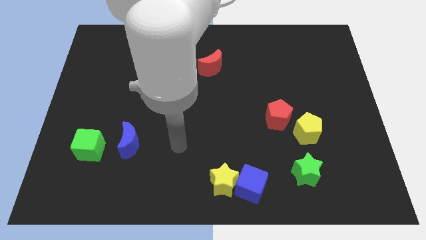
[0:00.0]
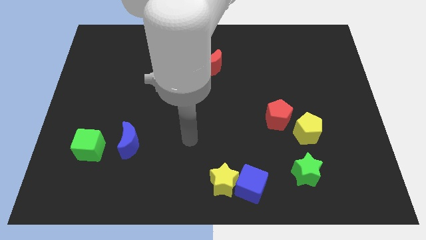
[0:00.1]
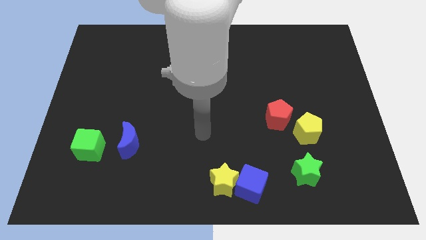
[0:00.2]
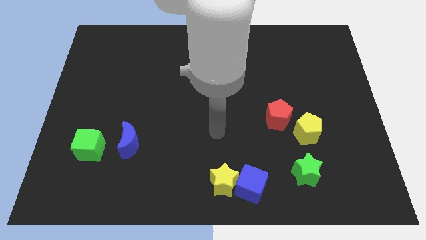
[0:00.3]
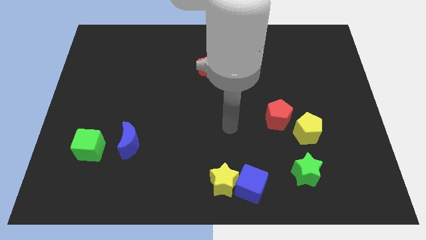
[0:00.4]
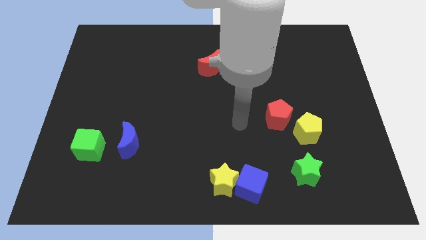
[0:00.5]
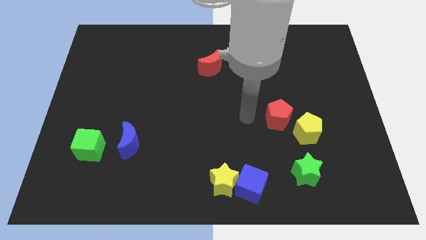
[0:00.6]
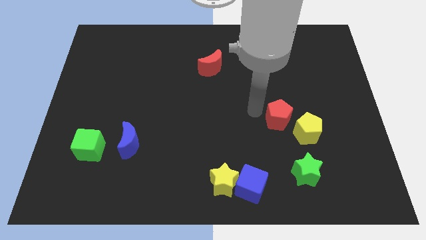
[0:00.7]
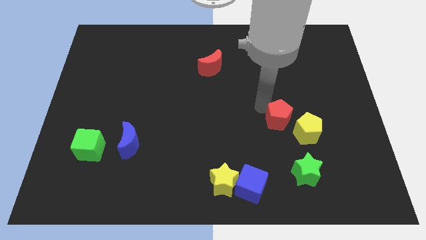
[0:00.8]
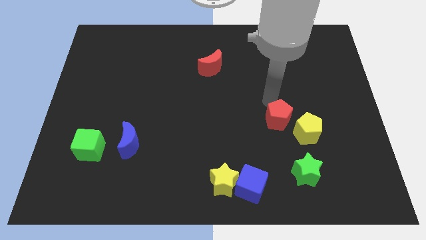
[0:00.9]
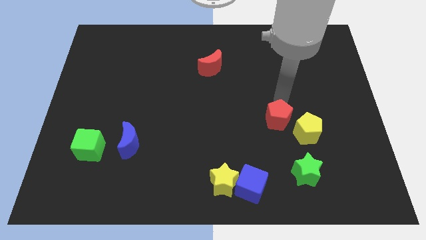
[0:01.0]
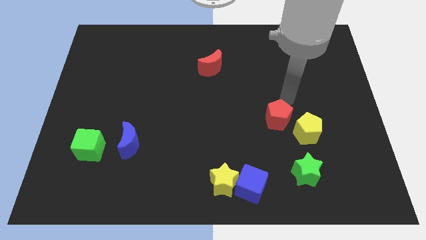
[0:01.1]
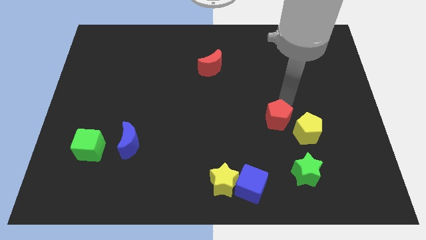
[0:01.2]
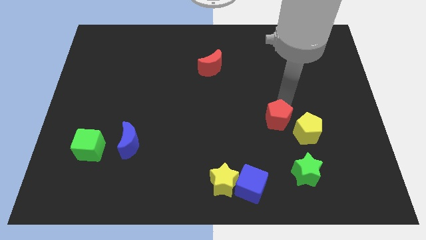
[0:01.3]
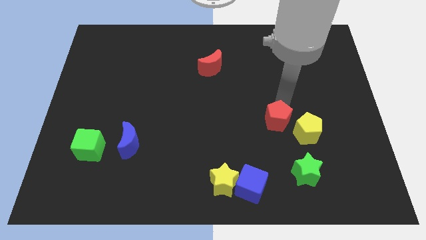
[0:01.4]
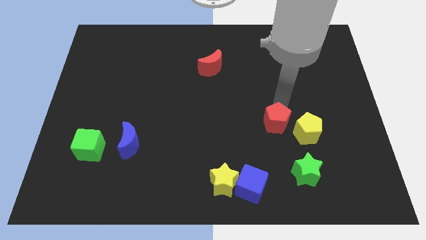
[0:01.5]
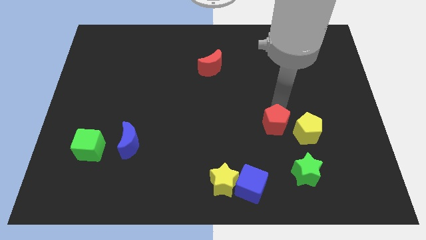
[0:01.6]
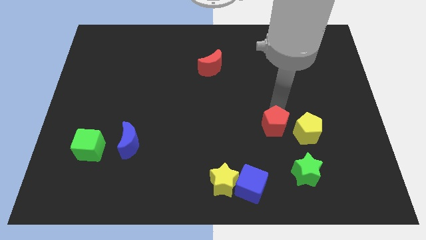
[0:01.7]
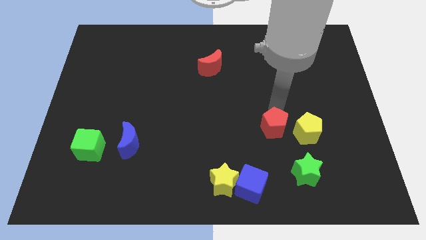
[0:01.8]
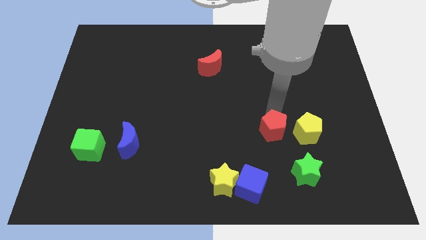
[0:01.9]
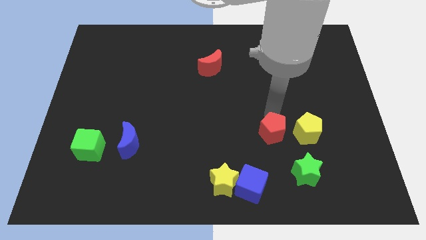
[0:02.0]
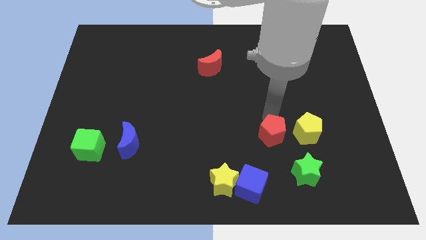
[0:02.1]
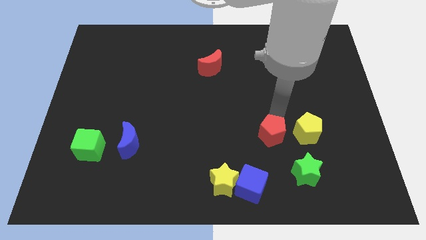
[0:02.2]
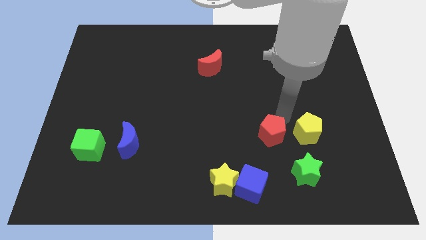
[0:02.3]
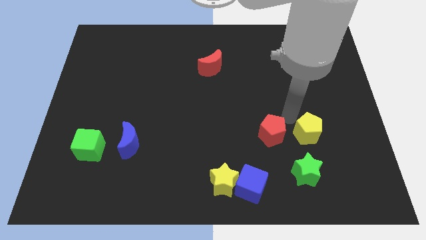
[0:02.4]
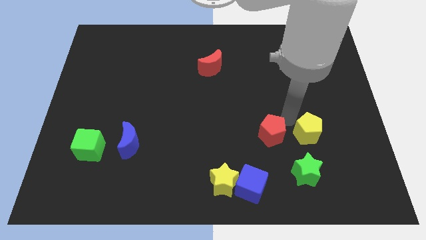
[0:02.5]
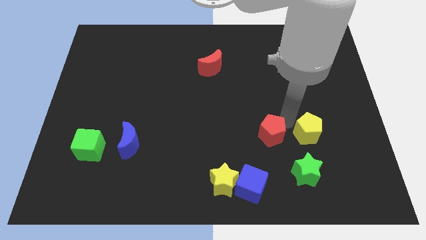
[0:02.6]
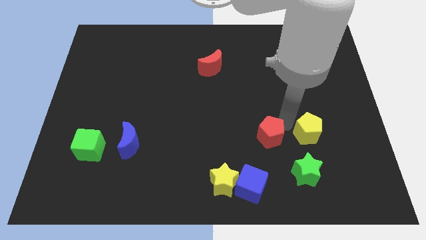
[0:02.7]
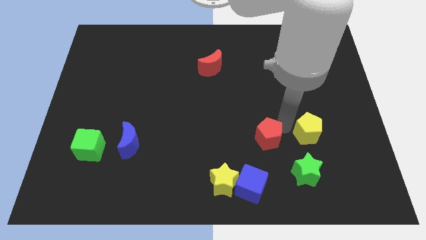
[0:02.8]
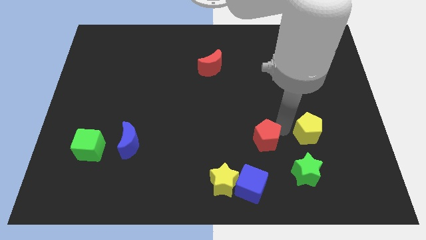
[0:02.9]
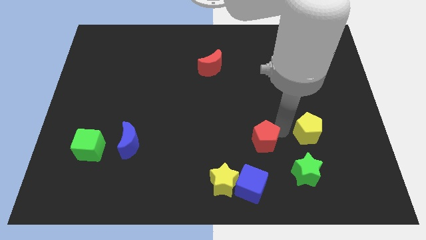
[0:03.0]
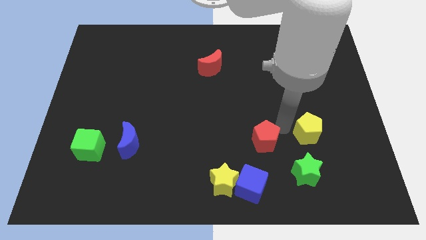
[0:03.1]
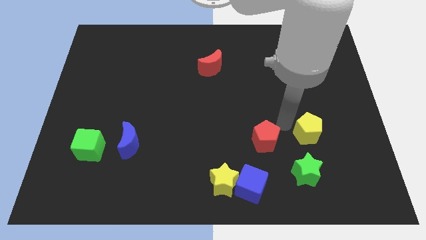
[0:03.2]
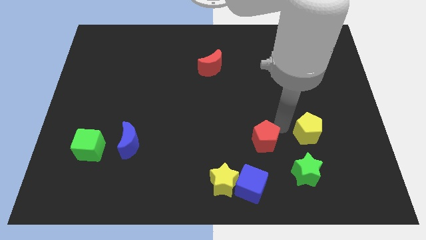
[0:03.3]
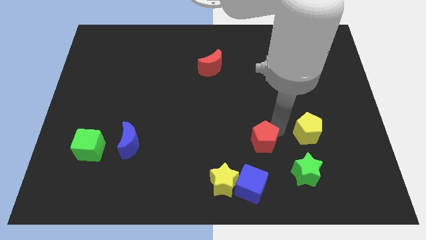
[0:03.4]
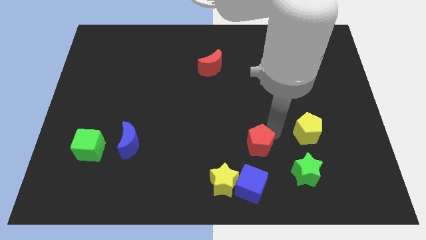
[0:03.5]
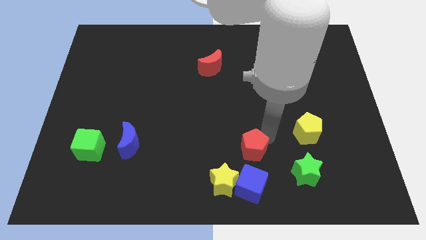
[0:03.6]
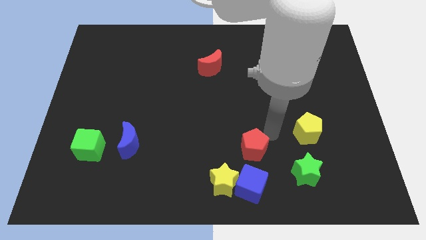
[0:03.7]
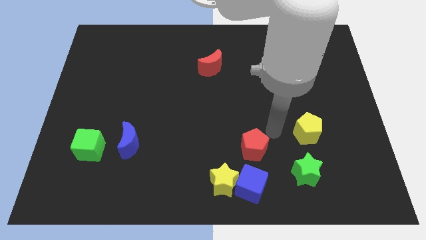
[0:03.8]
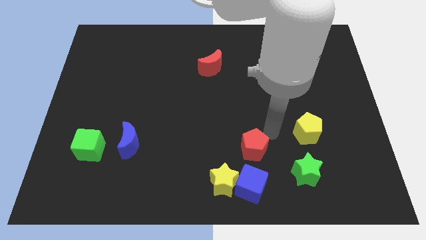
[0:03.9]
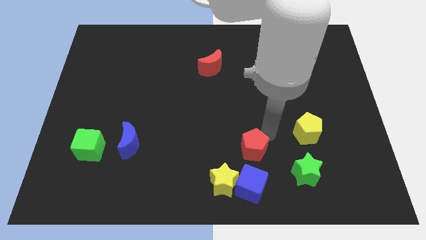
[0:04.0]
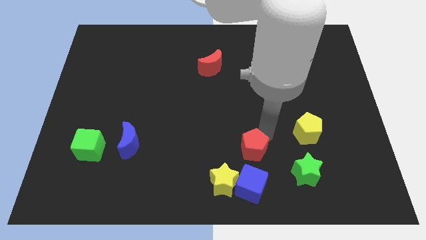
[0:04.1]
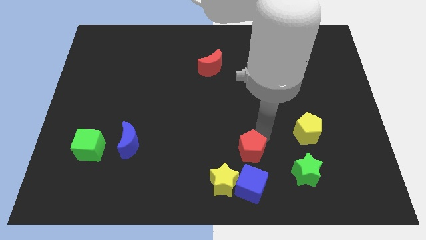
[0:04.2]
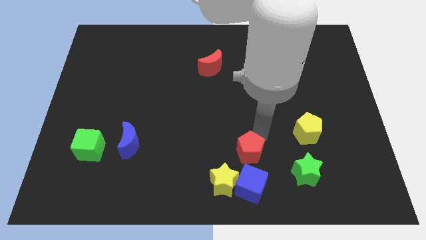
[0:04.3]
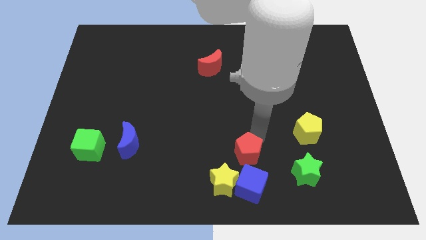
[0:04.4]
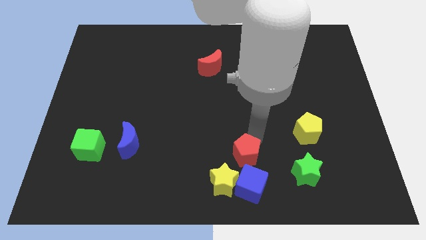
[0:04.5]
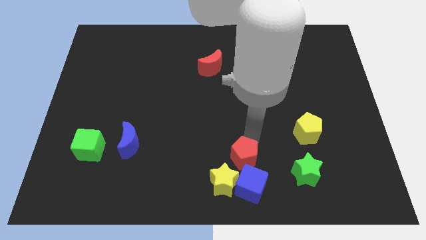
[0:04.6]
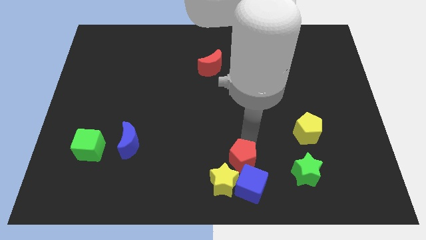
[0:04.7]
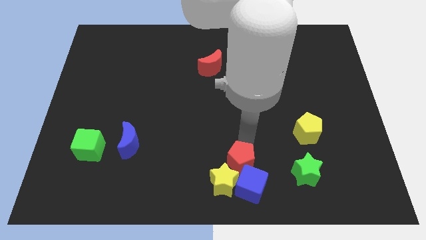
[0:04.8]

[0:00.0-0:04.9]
move the red pentagon towards the yellow star

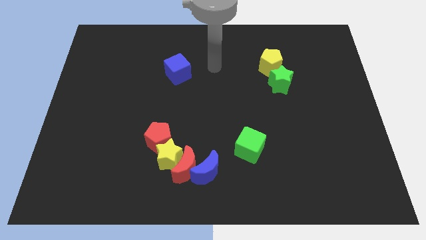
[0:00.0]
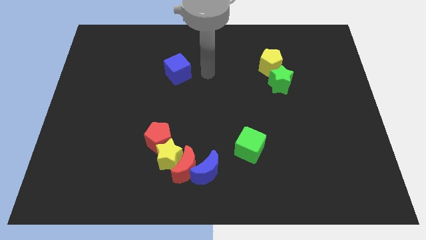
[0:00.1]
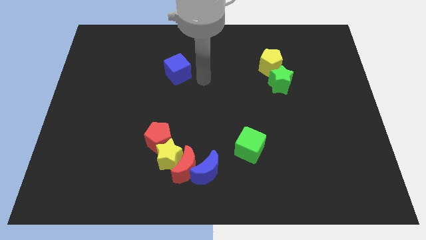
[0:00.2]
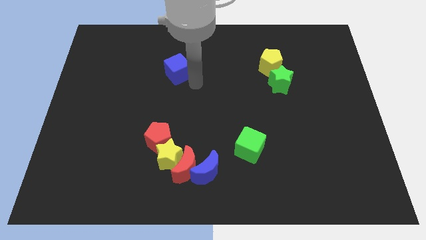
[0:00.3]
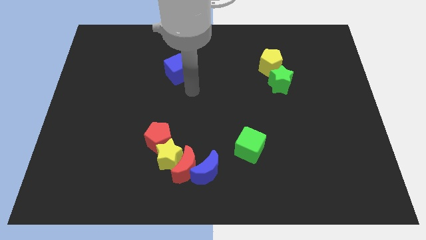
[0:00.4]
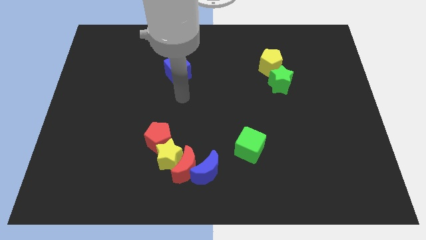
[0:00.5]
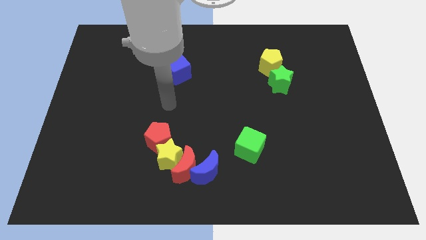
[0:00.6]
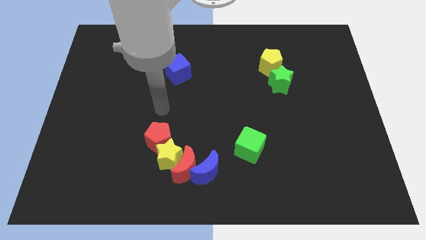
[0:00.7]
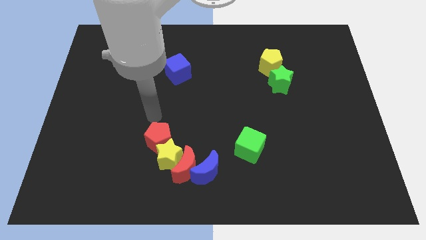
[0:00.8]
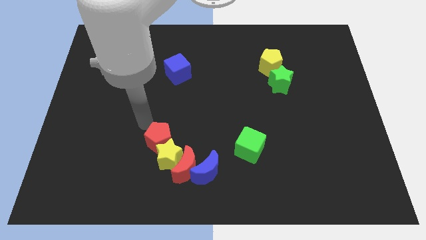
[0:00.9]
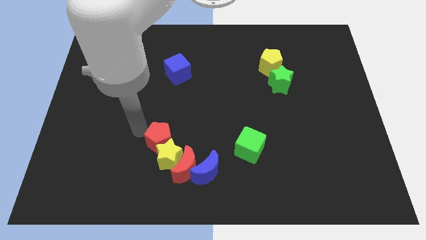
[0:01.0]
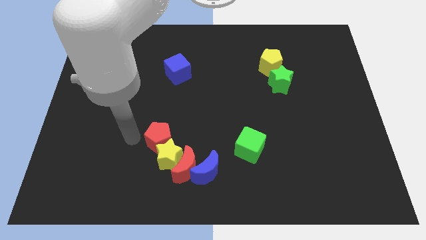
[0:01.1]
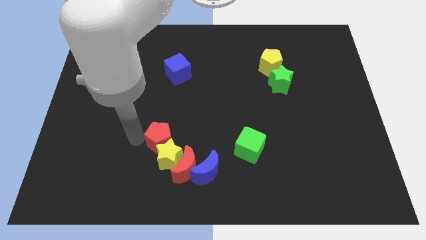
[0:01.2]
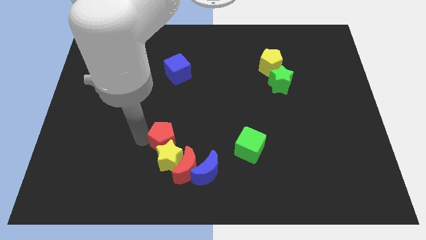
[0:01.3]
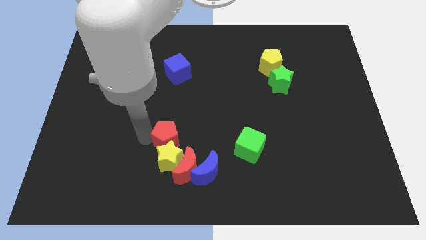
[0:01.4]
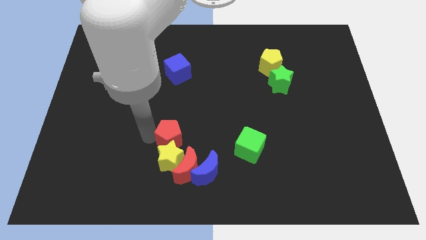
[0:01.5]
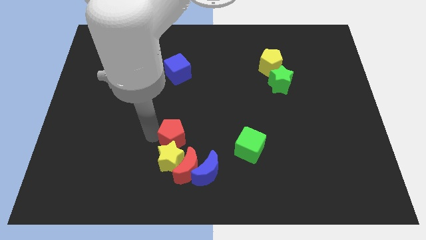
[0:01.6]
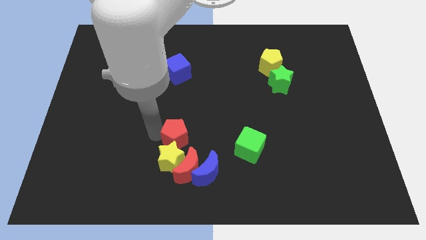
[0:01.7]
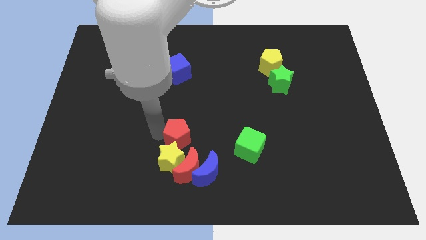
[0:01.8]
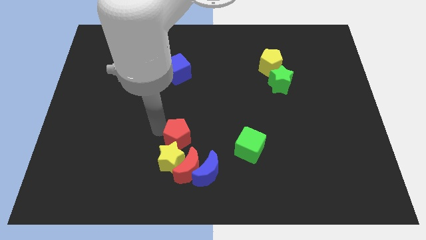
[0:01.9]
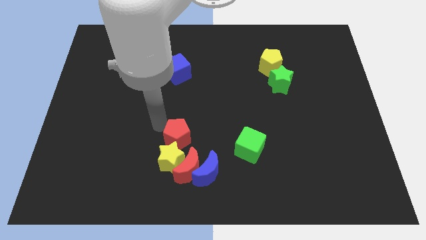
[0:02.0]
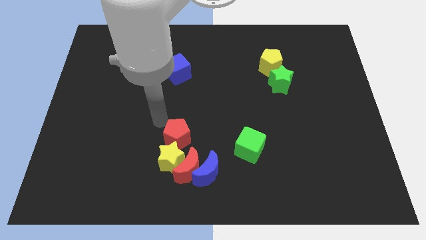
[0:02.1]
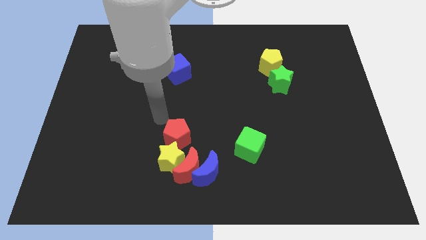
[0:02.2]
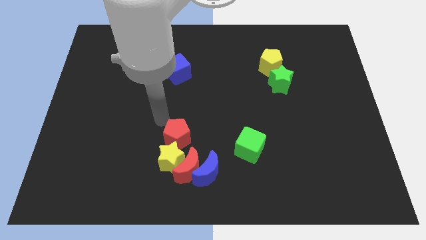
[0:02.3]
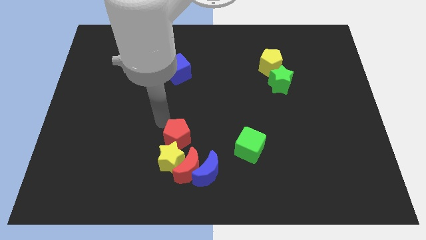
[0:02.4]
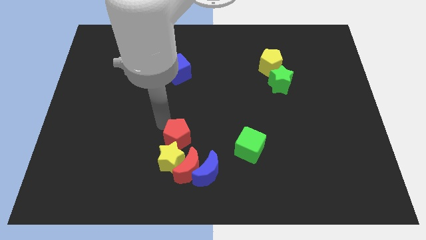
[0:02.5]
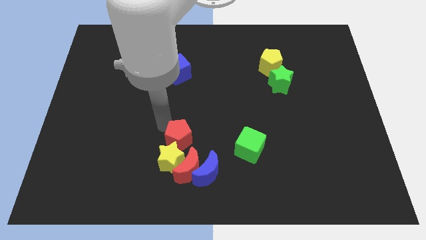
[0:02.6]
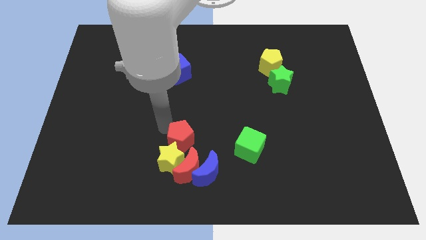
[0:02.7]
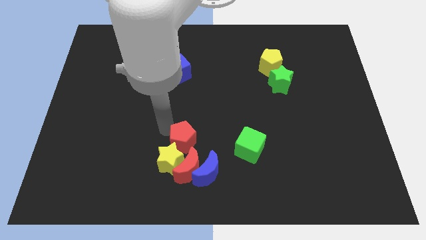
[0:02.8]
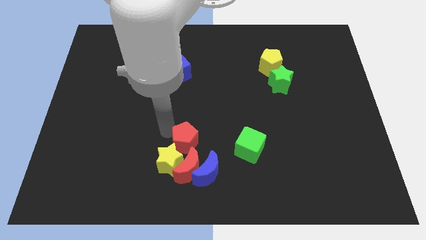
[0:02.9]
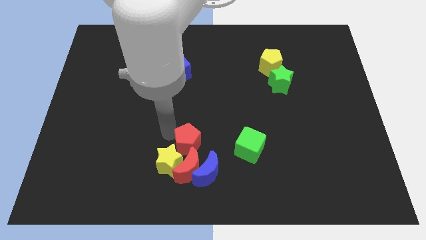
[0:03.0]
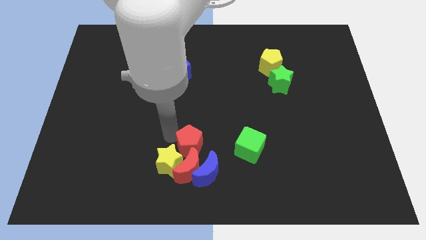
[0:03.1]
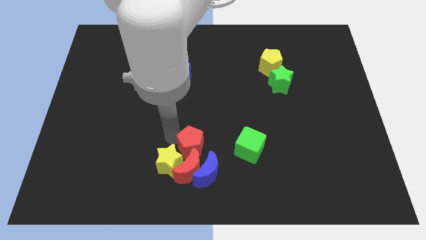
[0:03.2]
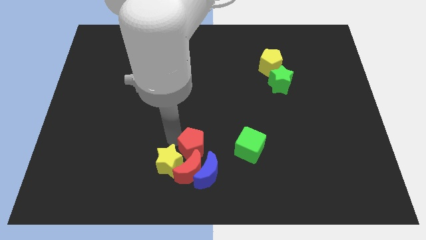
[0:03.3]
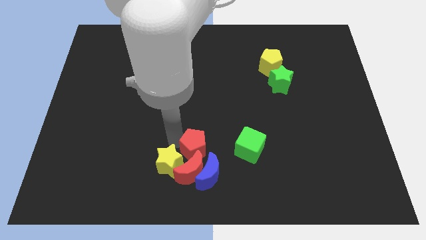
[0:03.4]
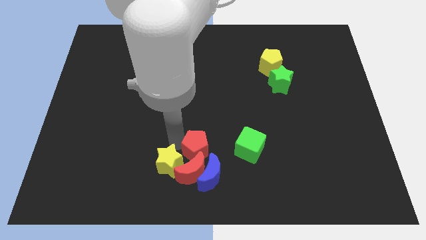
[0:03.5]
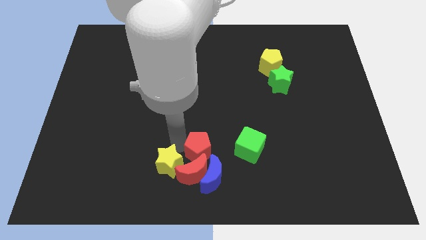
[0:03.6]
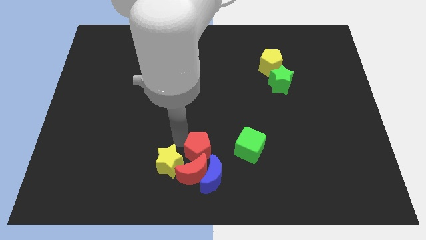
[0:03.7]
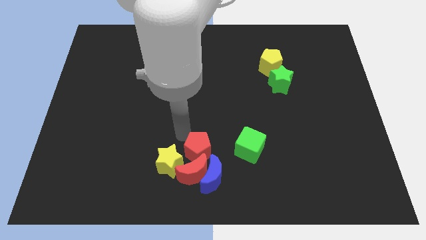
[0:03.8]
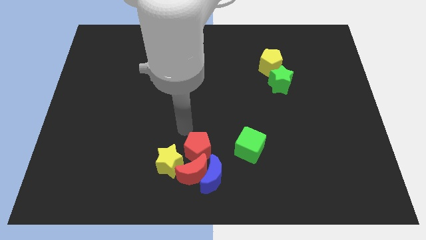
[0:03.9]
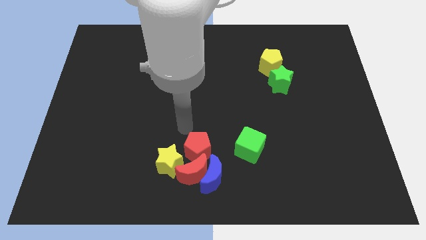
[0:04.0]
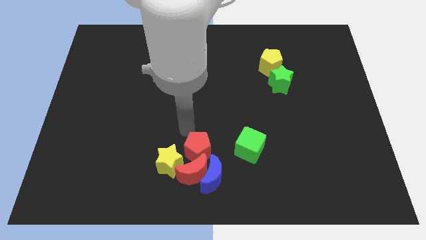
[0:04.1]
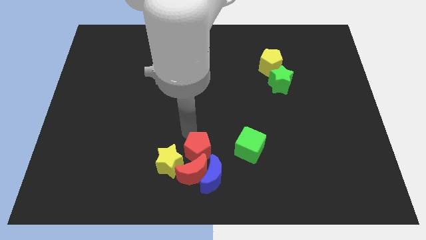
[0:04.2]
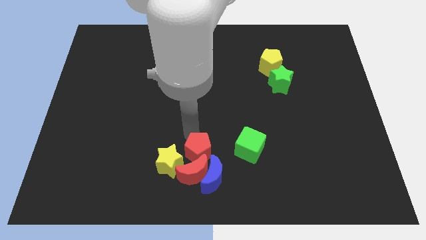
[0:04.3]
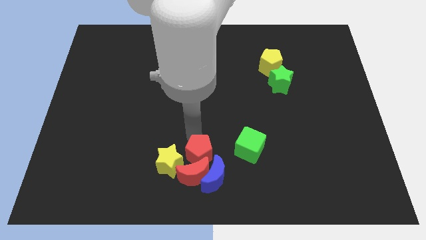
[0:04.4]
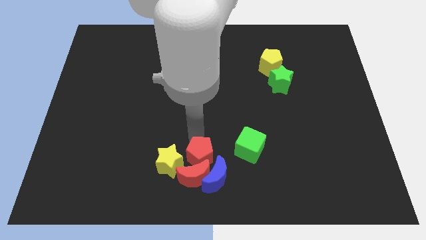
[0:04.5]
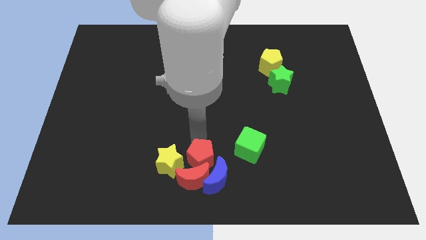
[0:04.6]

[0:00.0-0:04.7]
slide the red pentagon next to the blue moon
